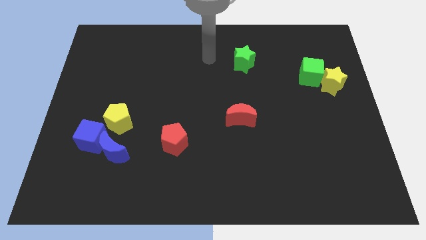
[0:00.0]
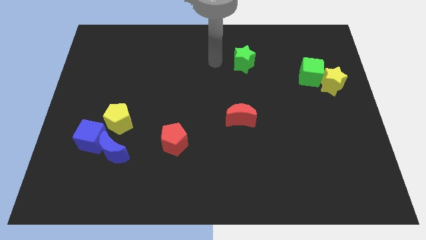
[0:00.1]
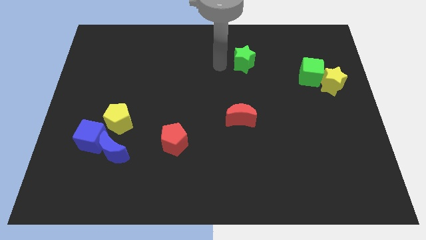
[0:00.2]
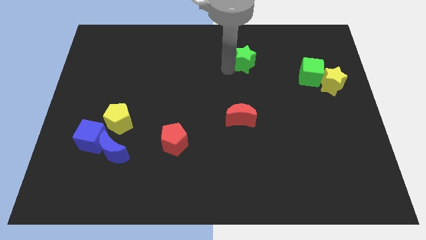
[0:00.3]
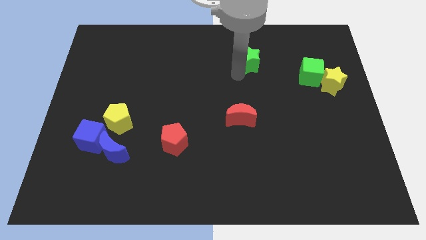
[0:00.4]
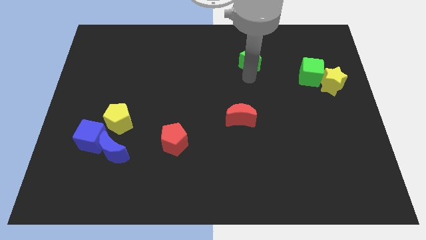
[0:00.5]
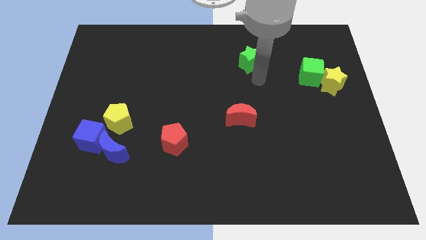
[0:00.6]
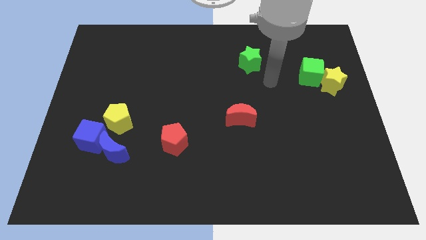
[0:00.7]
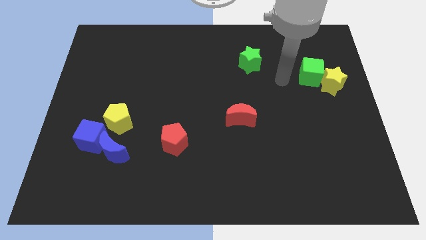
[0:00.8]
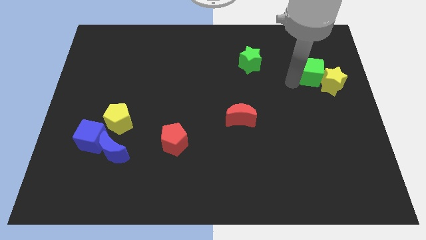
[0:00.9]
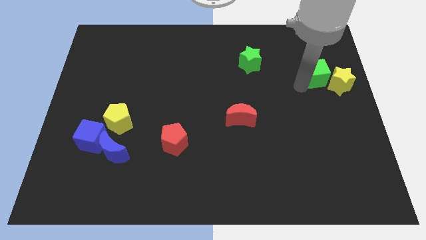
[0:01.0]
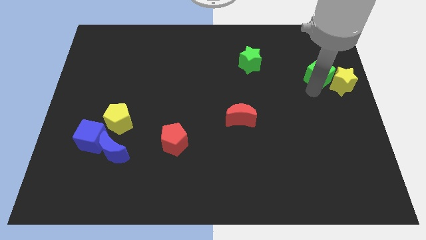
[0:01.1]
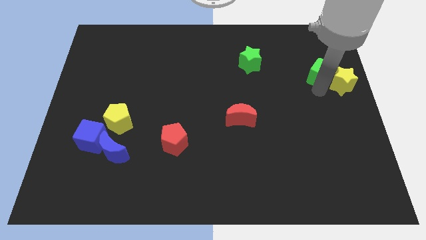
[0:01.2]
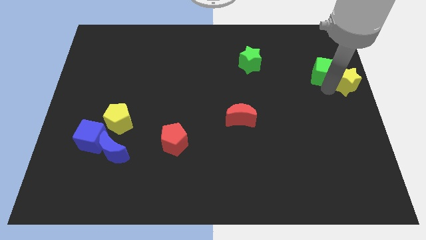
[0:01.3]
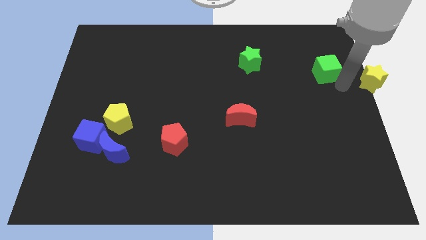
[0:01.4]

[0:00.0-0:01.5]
separate the green cube from the yellow star

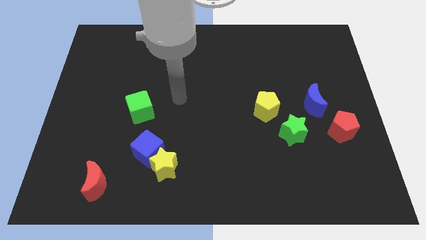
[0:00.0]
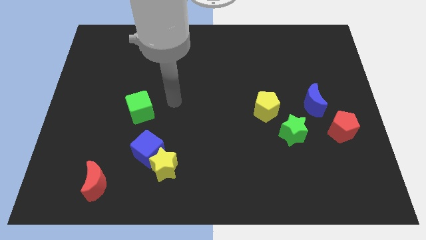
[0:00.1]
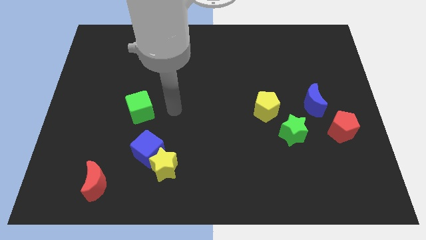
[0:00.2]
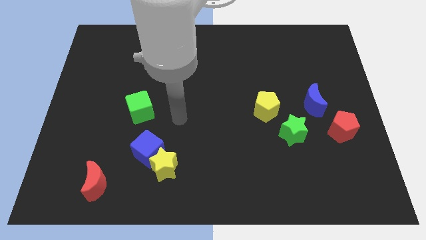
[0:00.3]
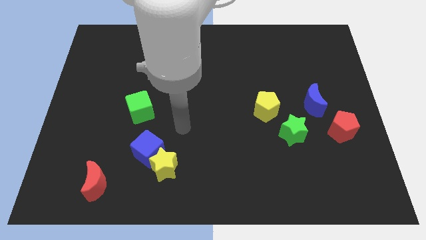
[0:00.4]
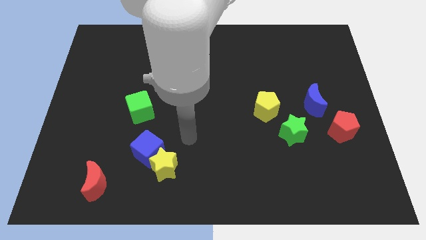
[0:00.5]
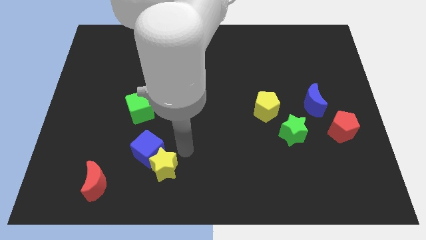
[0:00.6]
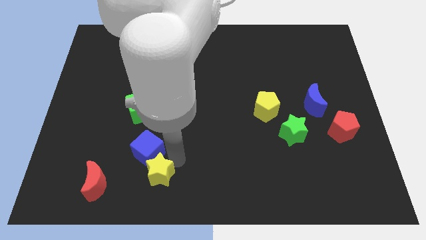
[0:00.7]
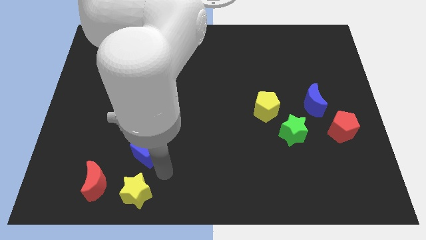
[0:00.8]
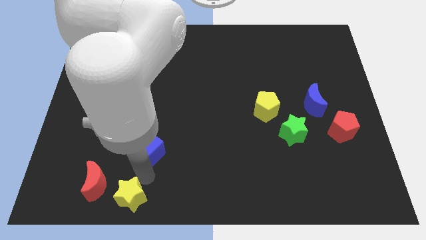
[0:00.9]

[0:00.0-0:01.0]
separate the blue cube from the yellow star

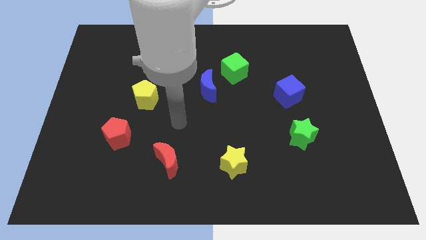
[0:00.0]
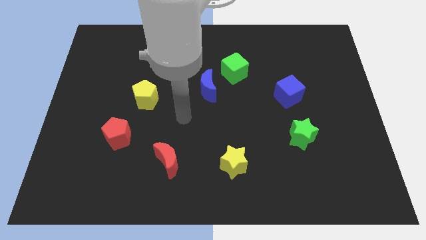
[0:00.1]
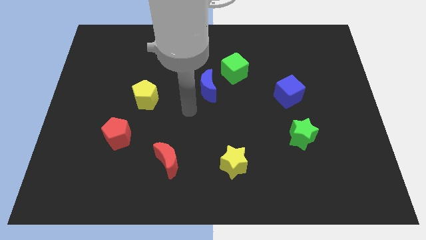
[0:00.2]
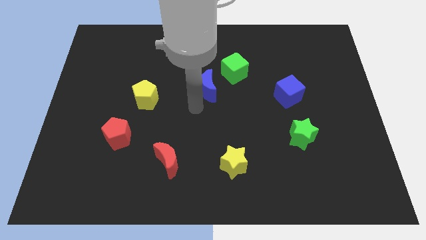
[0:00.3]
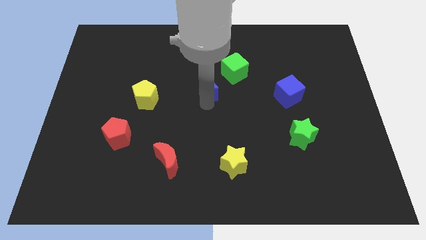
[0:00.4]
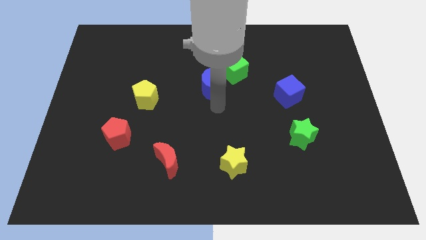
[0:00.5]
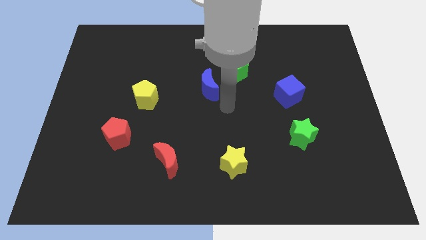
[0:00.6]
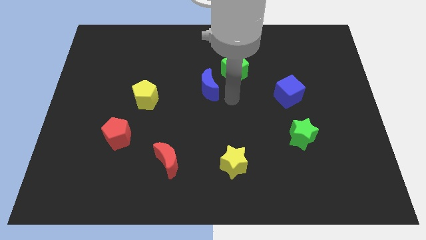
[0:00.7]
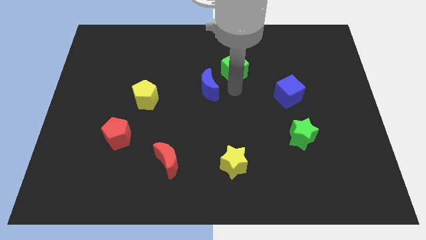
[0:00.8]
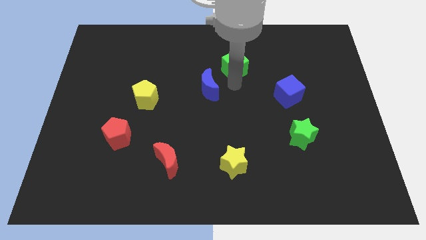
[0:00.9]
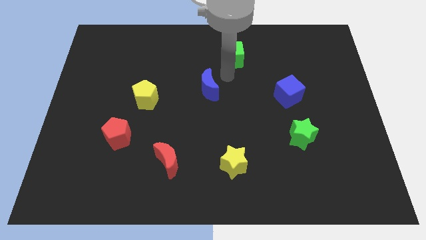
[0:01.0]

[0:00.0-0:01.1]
move the blue moon away from the green cube

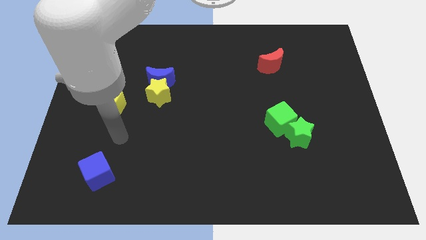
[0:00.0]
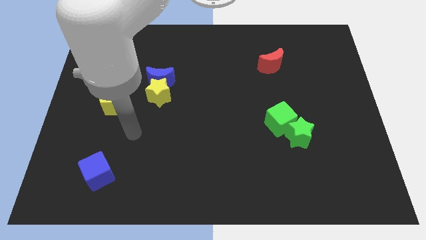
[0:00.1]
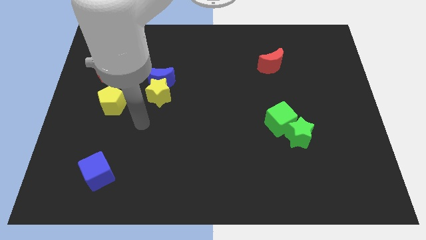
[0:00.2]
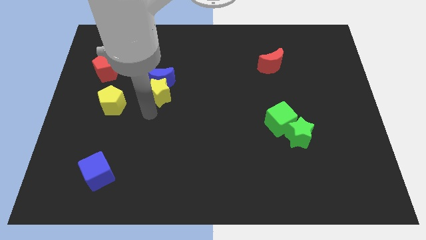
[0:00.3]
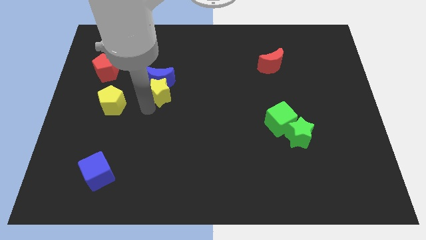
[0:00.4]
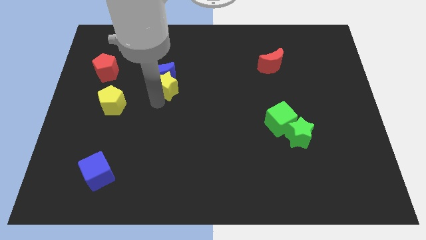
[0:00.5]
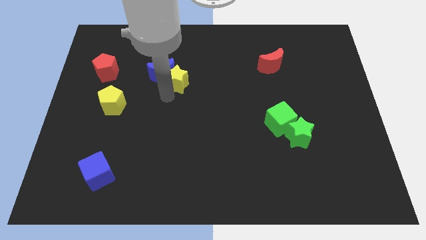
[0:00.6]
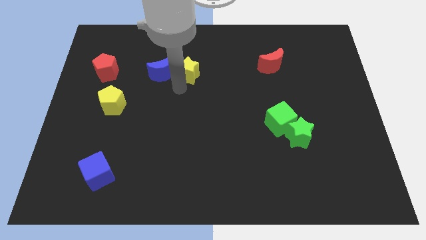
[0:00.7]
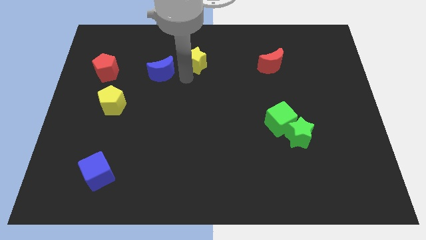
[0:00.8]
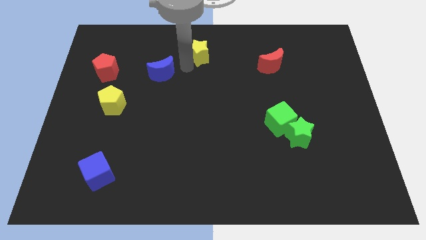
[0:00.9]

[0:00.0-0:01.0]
pull the blue moon apart from the yellow star

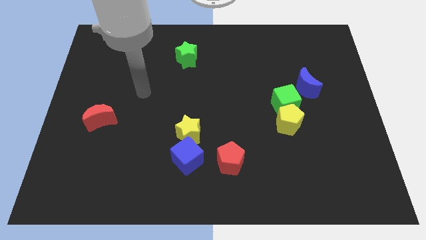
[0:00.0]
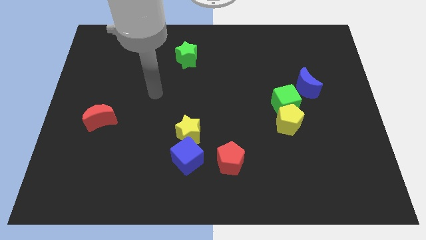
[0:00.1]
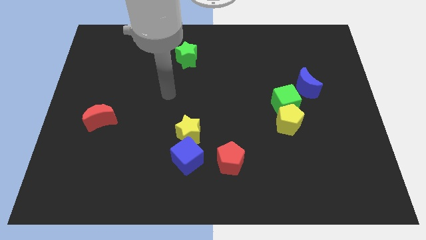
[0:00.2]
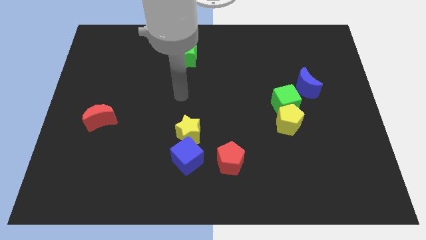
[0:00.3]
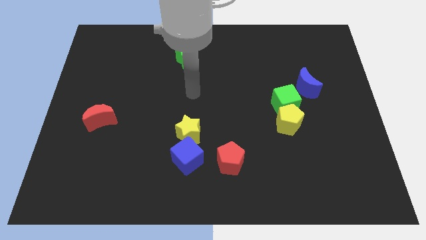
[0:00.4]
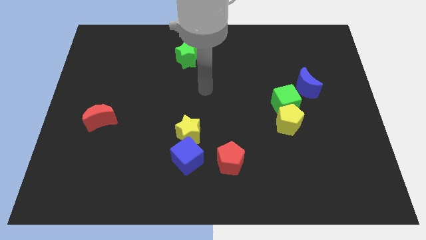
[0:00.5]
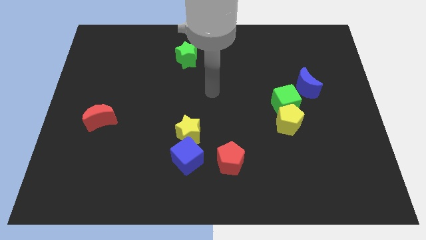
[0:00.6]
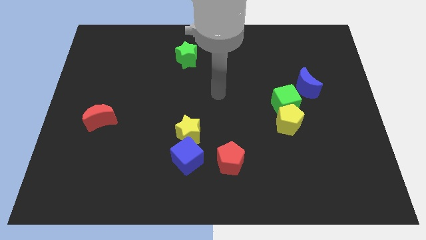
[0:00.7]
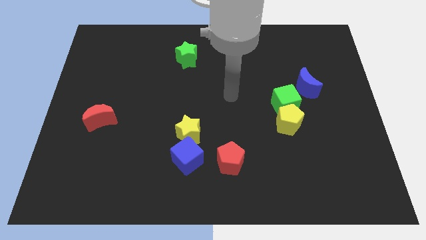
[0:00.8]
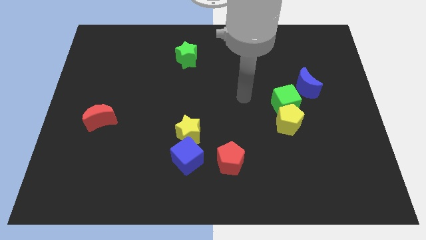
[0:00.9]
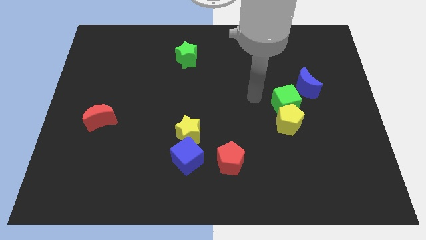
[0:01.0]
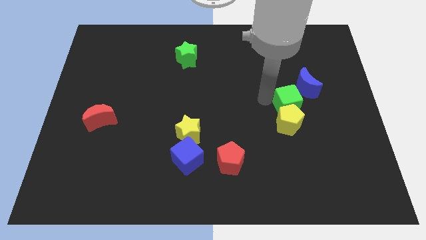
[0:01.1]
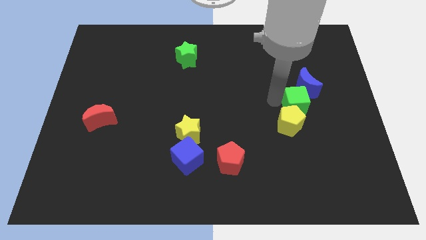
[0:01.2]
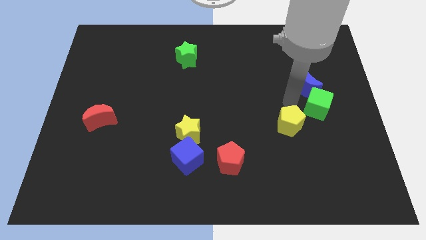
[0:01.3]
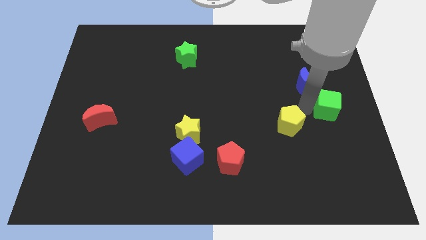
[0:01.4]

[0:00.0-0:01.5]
pull the yellow pentagon apart from the green cube

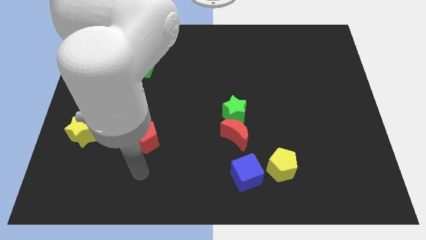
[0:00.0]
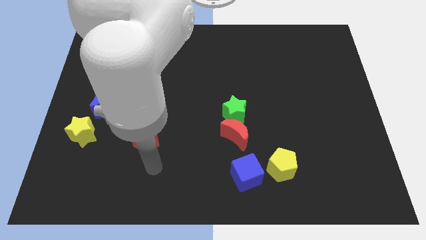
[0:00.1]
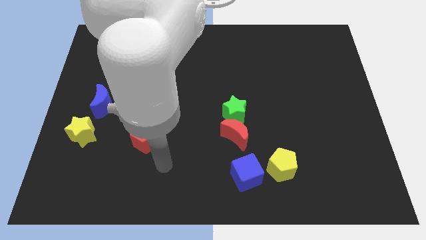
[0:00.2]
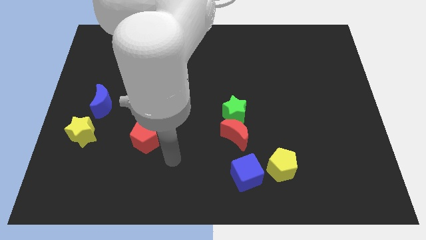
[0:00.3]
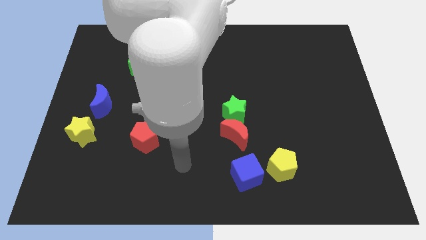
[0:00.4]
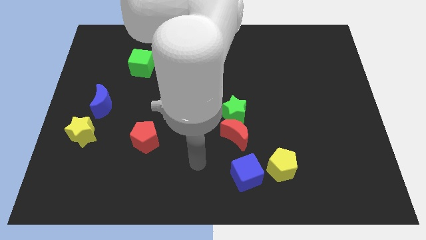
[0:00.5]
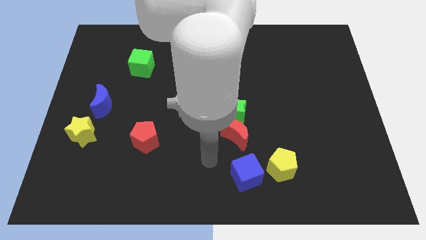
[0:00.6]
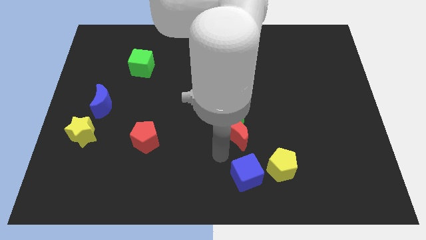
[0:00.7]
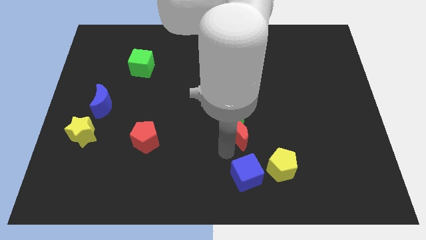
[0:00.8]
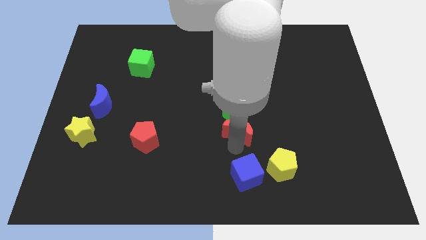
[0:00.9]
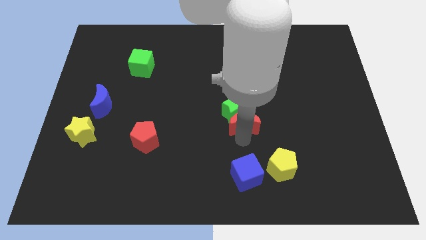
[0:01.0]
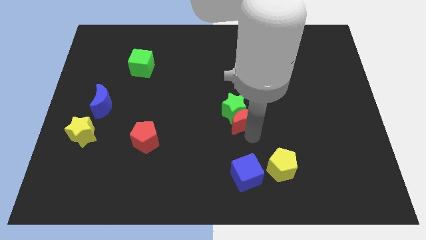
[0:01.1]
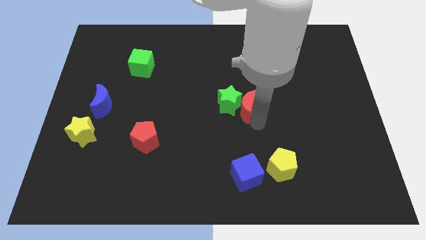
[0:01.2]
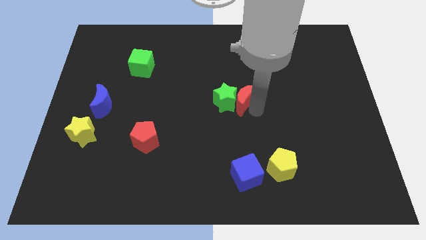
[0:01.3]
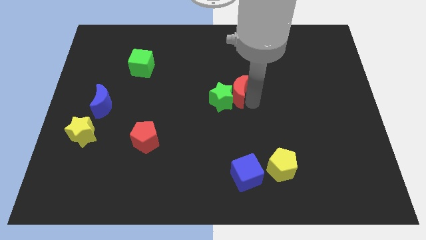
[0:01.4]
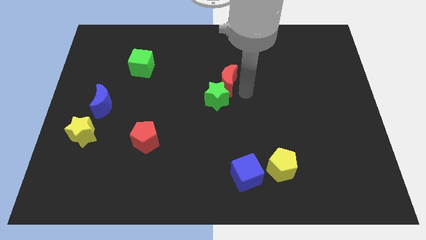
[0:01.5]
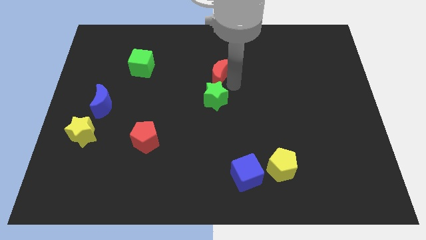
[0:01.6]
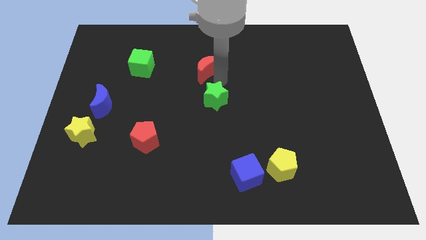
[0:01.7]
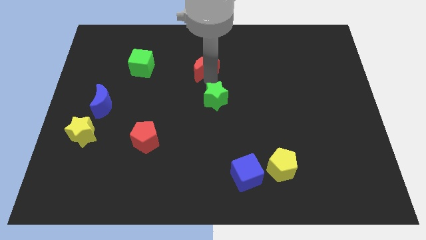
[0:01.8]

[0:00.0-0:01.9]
move the green star away from the red moon

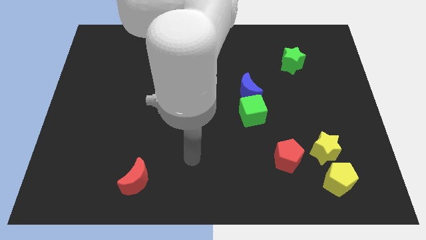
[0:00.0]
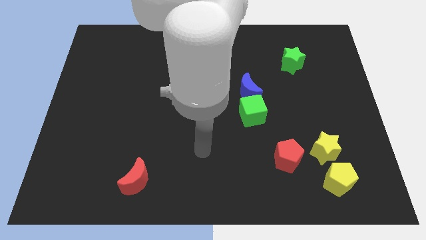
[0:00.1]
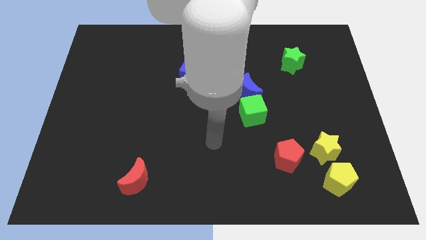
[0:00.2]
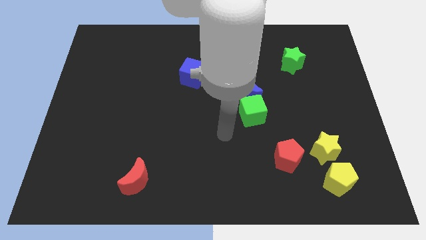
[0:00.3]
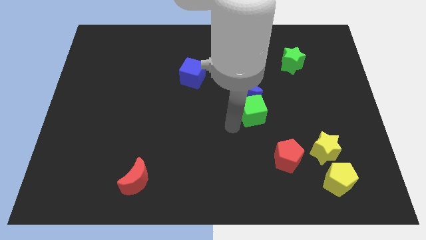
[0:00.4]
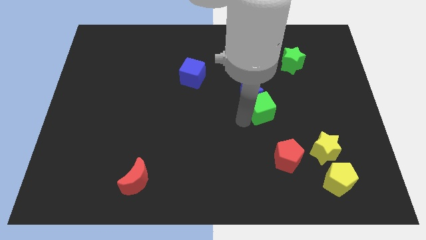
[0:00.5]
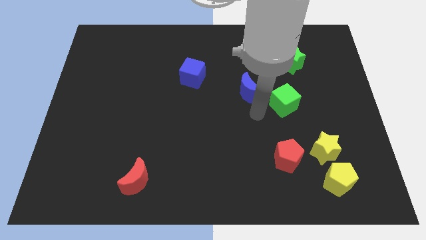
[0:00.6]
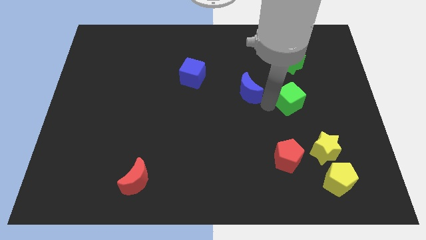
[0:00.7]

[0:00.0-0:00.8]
separate the blue moon from the green cube

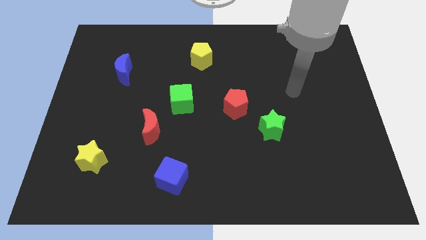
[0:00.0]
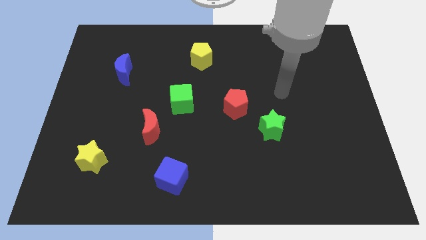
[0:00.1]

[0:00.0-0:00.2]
separate the red moon from the green cube

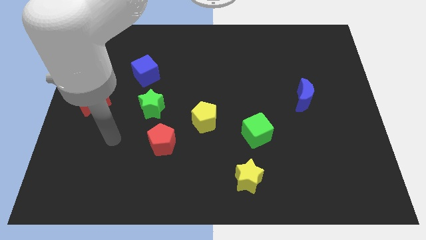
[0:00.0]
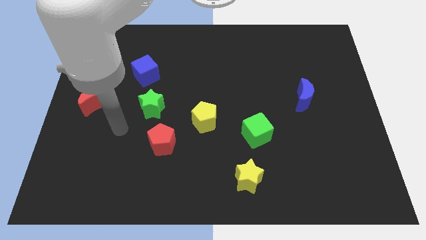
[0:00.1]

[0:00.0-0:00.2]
pull the red pentagon apart from the green star

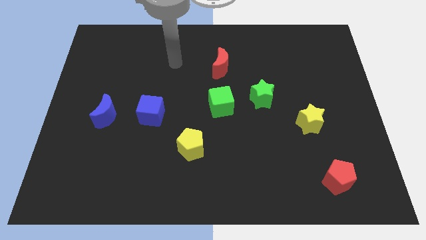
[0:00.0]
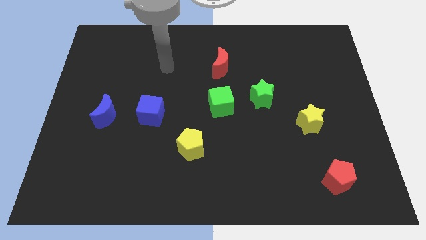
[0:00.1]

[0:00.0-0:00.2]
separate the blue moon from the blue cube
